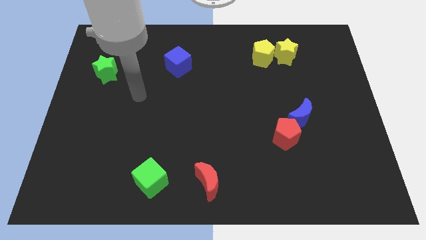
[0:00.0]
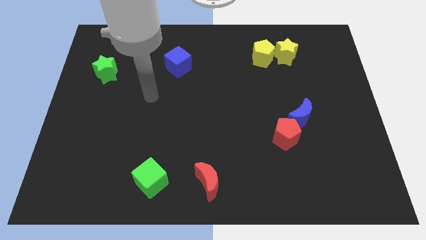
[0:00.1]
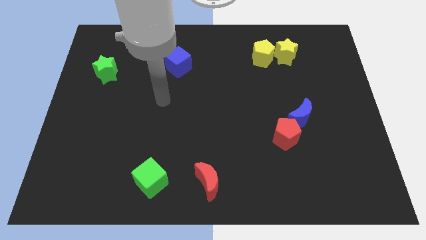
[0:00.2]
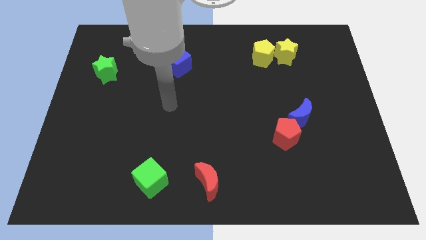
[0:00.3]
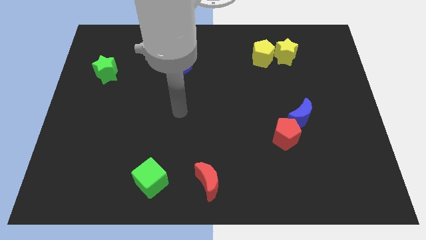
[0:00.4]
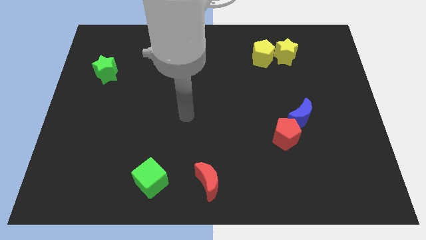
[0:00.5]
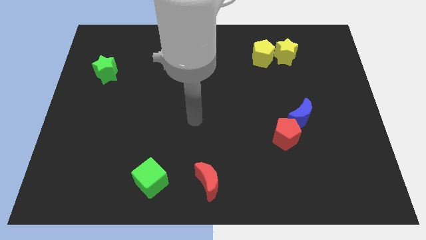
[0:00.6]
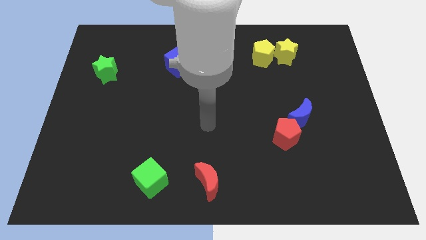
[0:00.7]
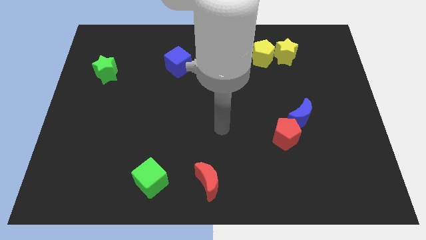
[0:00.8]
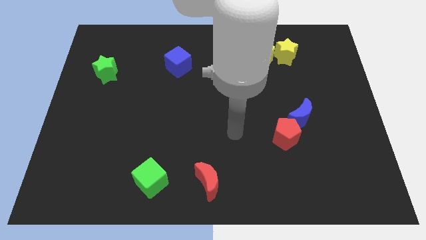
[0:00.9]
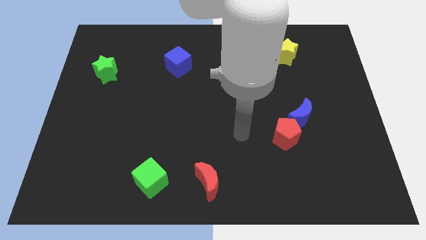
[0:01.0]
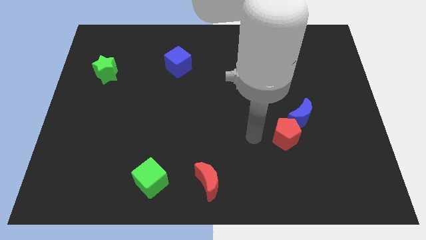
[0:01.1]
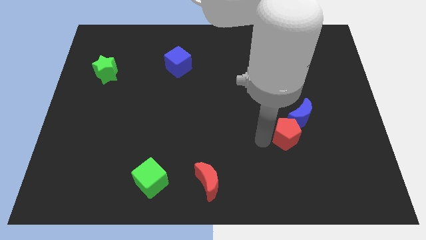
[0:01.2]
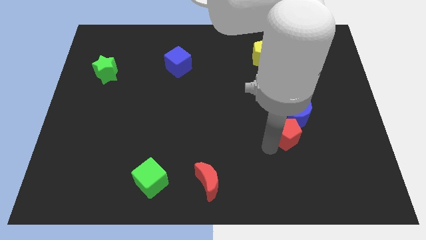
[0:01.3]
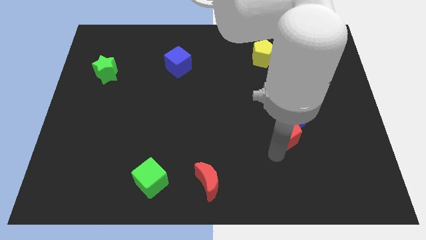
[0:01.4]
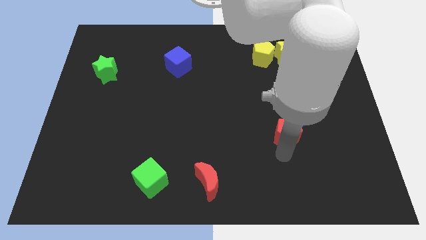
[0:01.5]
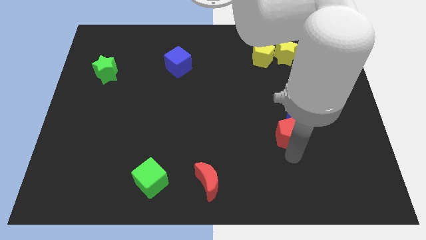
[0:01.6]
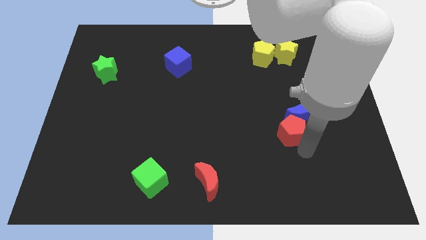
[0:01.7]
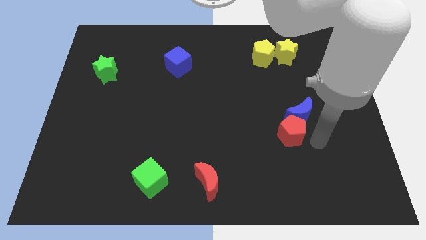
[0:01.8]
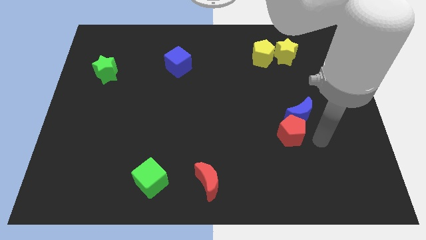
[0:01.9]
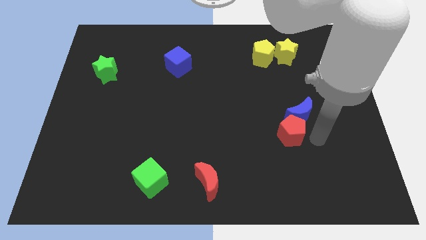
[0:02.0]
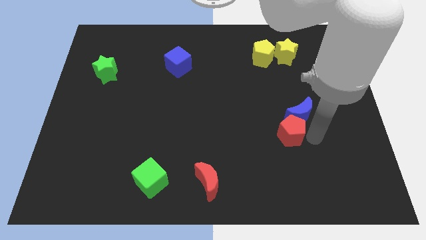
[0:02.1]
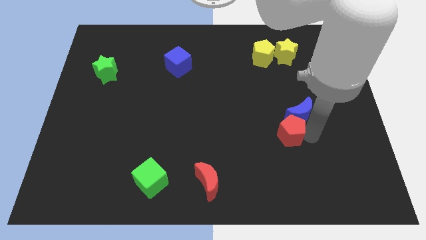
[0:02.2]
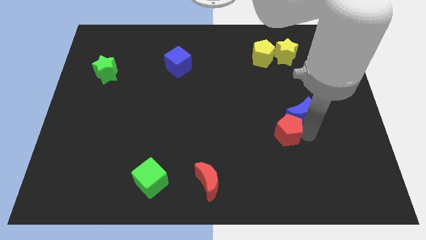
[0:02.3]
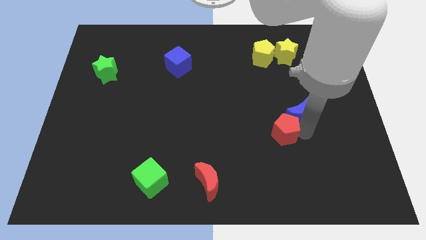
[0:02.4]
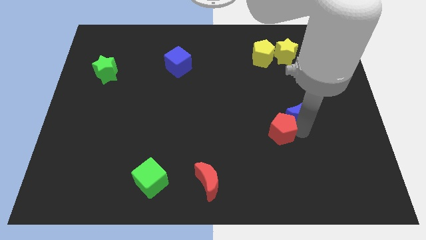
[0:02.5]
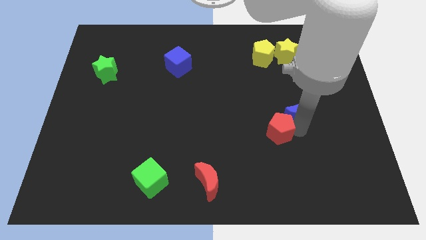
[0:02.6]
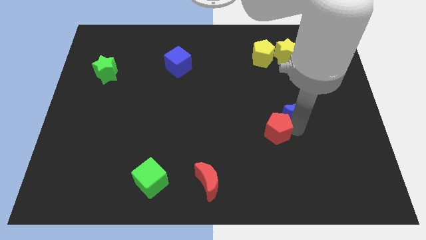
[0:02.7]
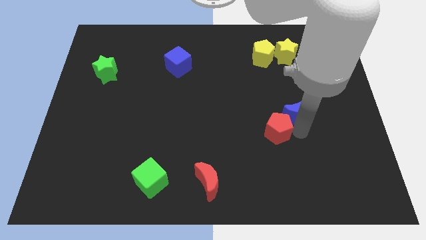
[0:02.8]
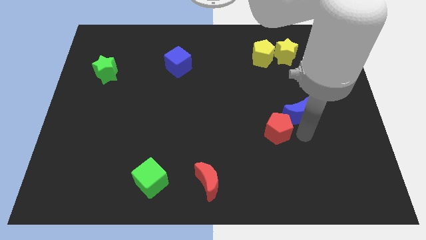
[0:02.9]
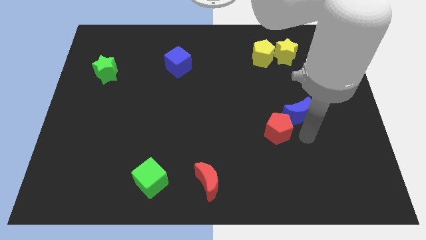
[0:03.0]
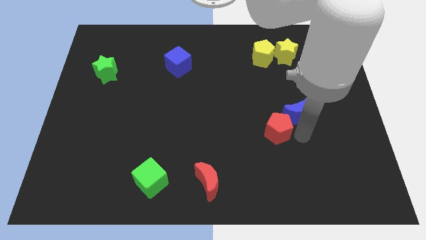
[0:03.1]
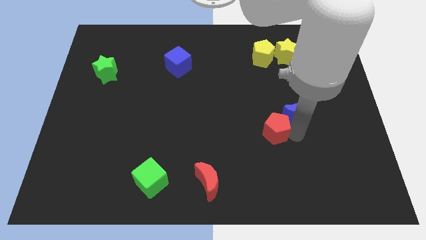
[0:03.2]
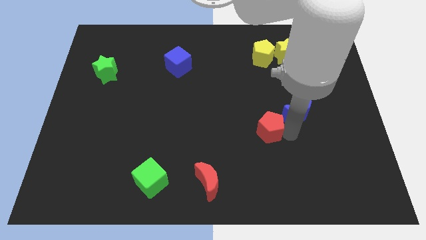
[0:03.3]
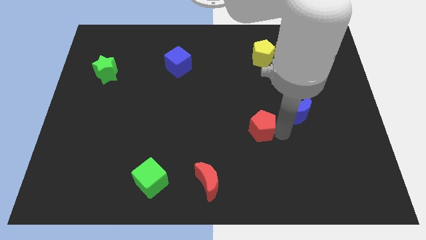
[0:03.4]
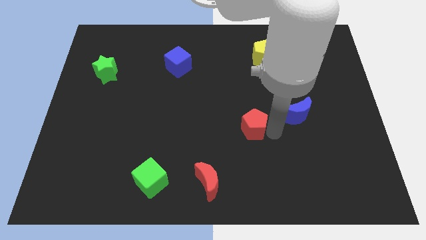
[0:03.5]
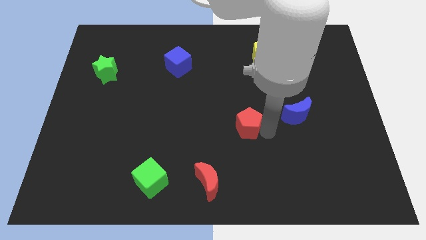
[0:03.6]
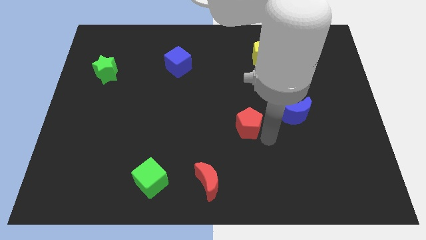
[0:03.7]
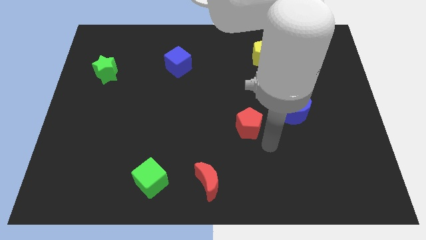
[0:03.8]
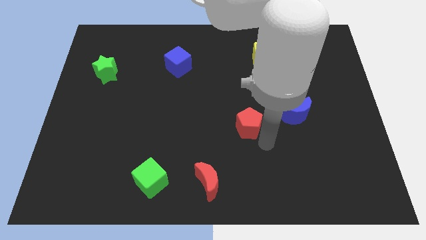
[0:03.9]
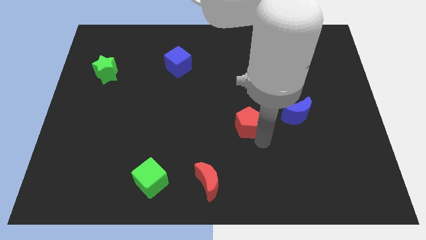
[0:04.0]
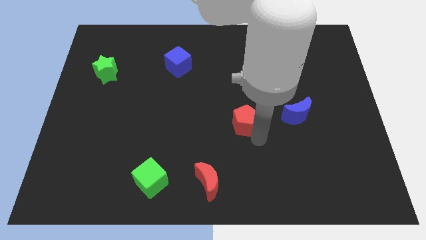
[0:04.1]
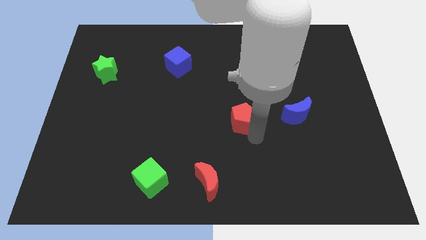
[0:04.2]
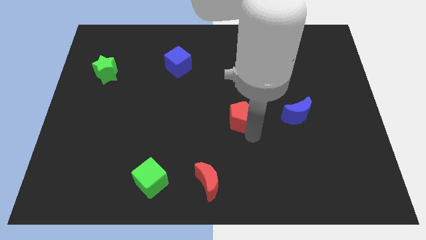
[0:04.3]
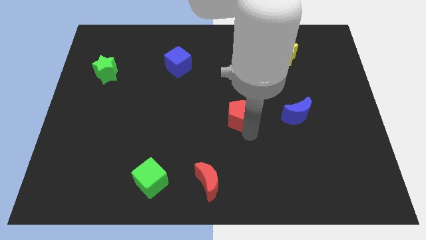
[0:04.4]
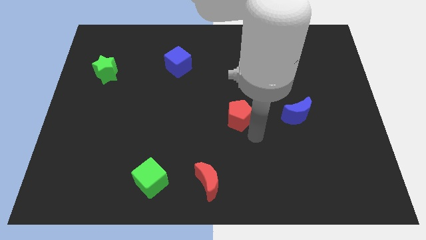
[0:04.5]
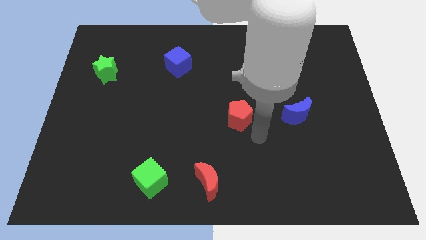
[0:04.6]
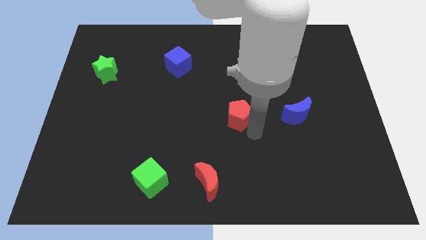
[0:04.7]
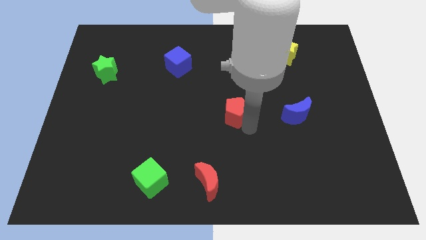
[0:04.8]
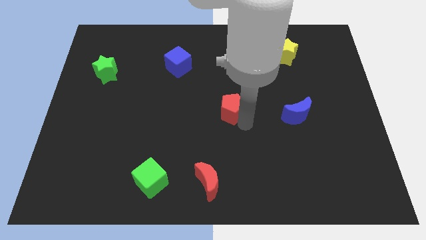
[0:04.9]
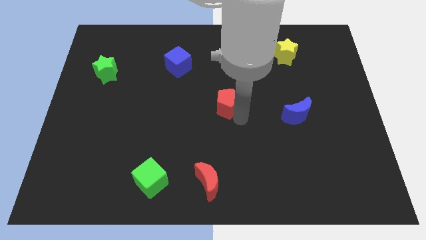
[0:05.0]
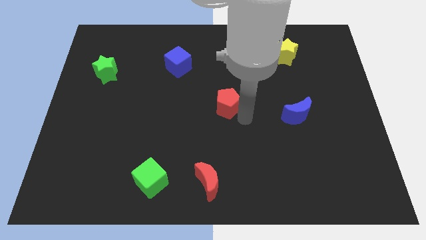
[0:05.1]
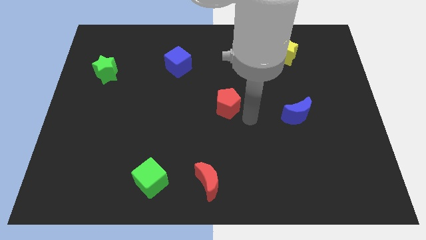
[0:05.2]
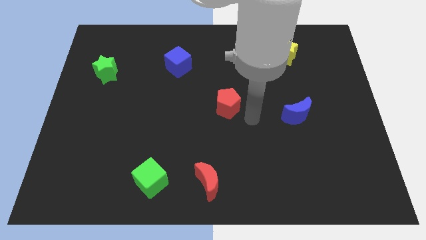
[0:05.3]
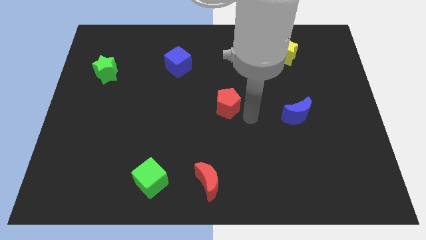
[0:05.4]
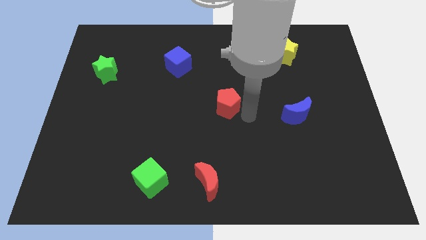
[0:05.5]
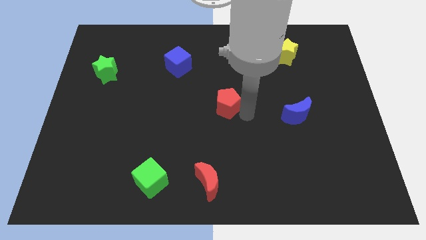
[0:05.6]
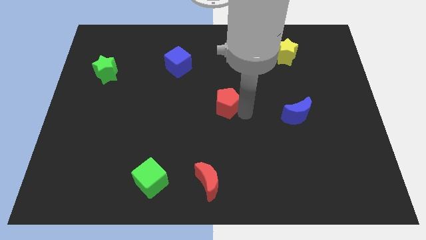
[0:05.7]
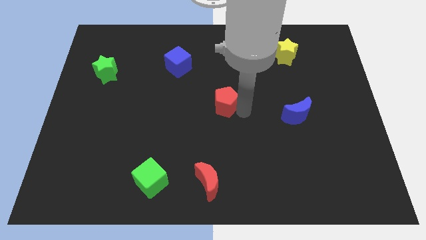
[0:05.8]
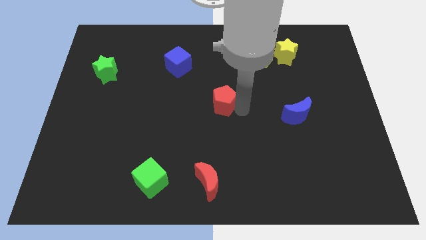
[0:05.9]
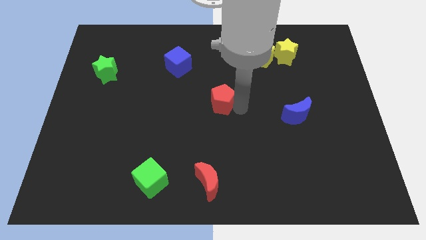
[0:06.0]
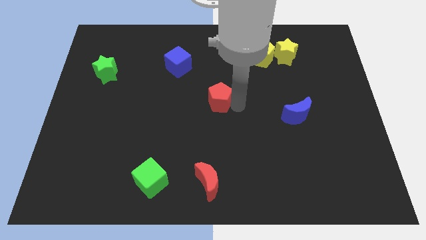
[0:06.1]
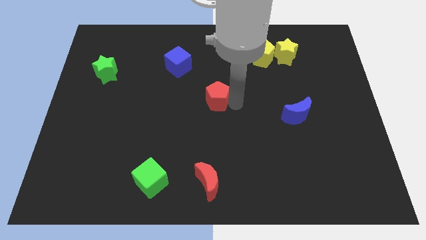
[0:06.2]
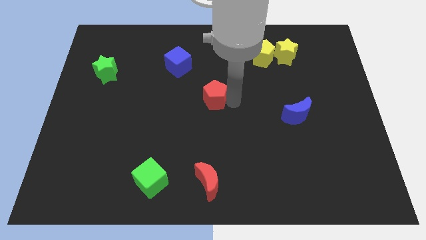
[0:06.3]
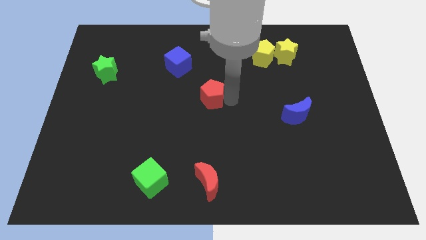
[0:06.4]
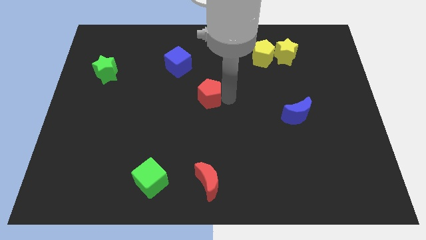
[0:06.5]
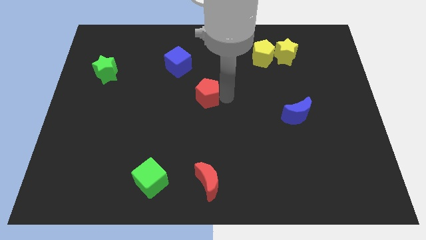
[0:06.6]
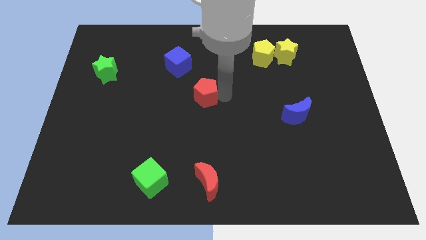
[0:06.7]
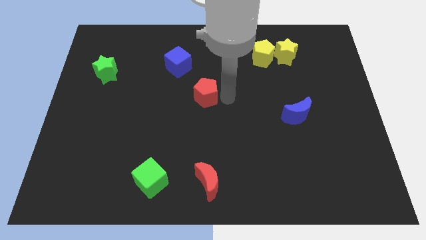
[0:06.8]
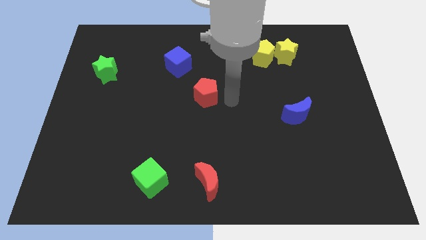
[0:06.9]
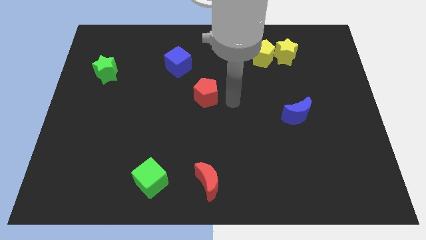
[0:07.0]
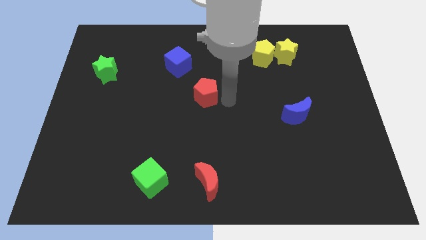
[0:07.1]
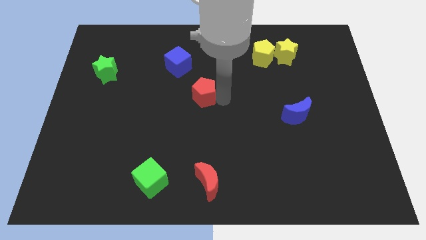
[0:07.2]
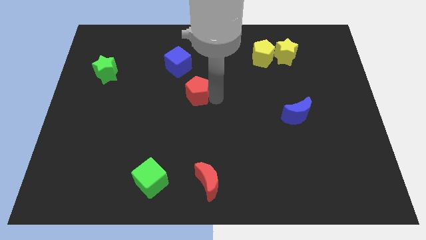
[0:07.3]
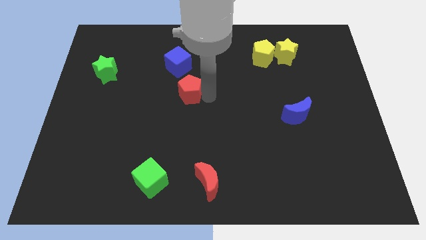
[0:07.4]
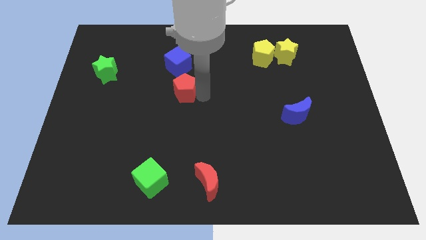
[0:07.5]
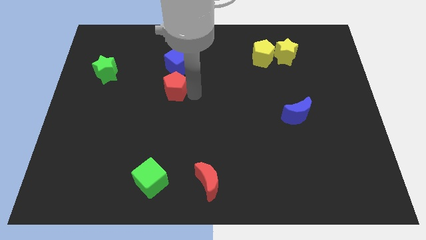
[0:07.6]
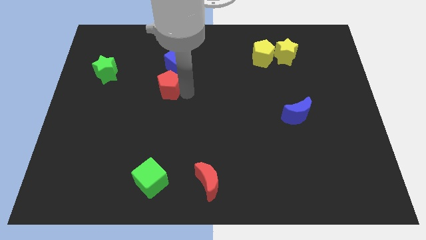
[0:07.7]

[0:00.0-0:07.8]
slide the red pentagon diagonally down and to the left of the blue cube

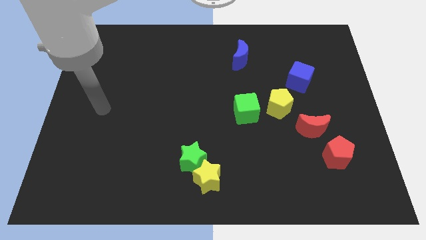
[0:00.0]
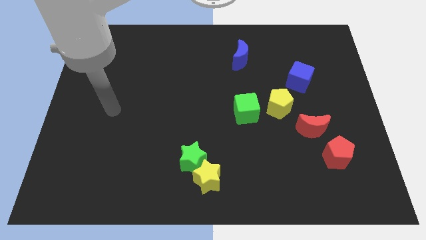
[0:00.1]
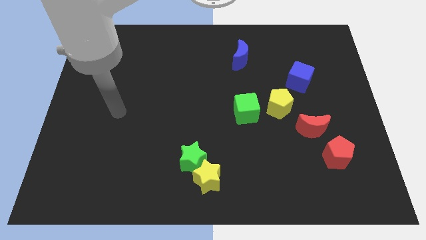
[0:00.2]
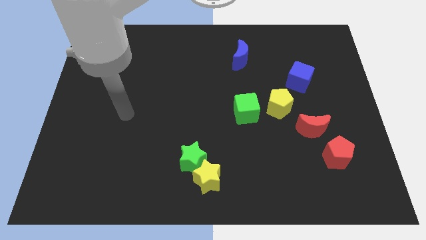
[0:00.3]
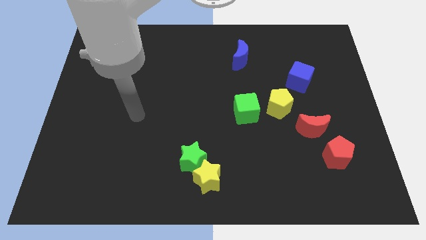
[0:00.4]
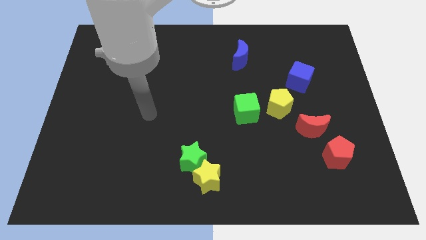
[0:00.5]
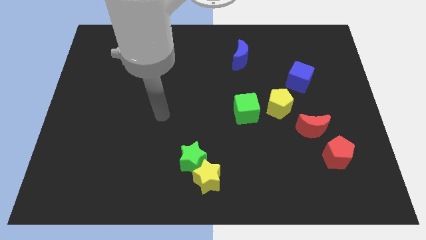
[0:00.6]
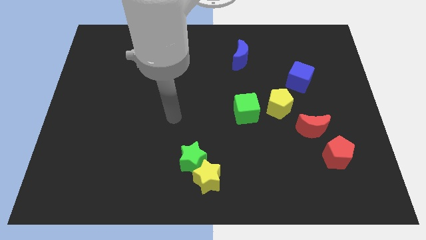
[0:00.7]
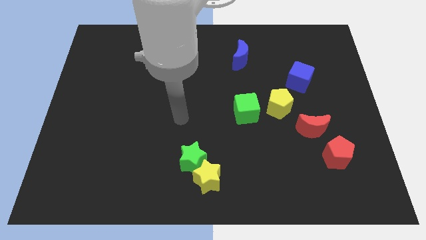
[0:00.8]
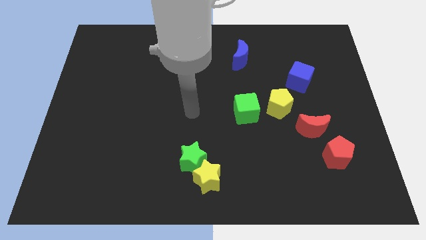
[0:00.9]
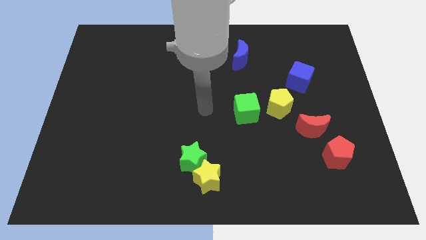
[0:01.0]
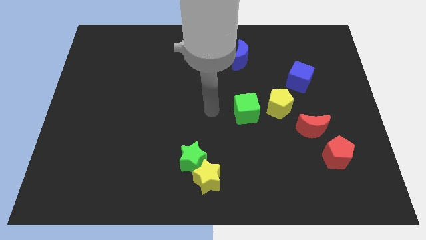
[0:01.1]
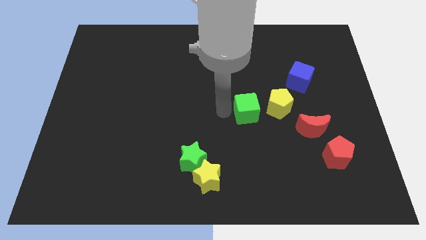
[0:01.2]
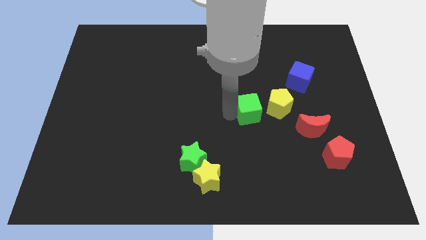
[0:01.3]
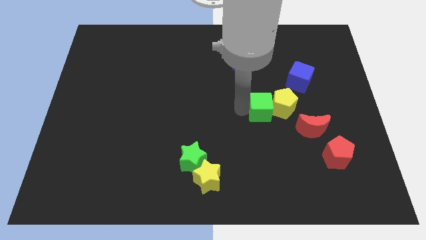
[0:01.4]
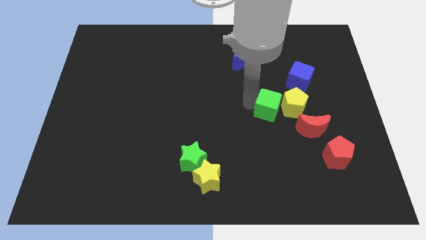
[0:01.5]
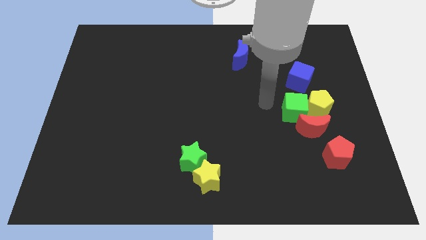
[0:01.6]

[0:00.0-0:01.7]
push the yellow pentagon to the top right side of the red moon
